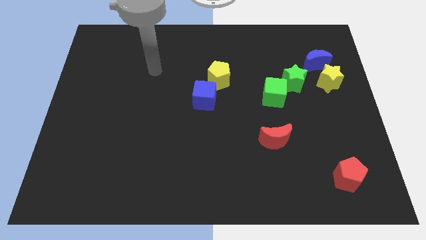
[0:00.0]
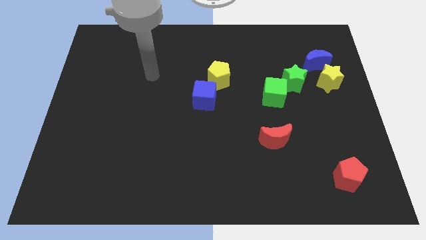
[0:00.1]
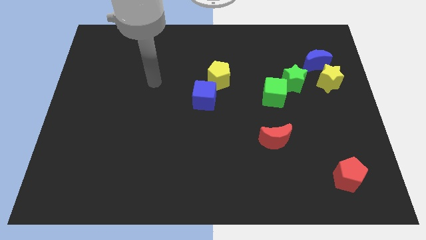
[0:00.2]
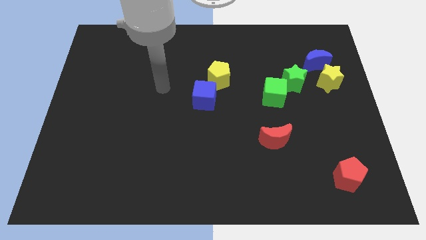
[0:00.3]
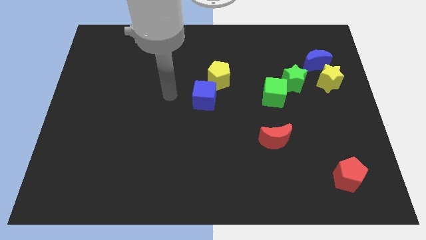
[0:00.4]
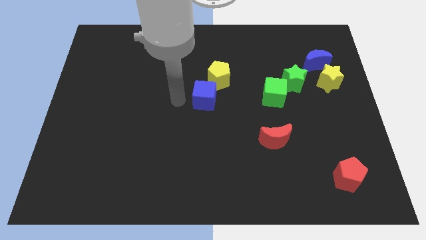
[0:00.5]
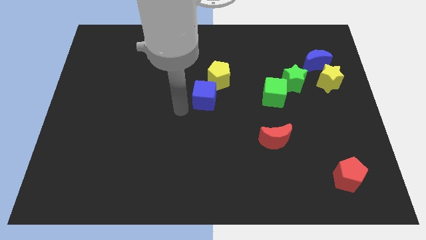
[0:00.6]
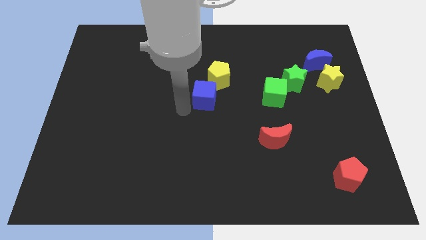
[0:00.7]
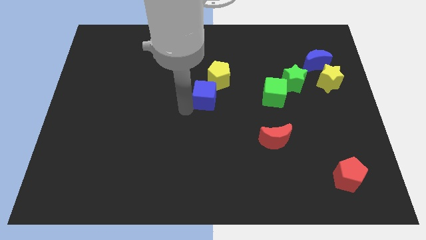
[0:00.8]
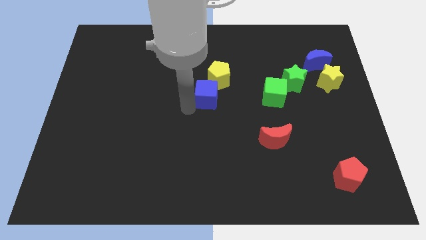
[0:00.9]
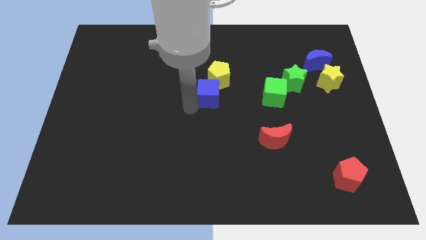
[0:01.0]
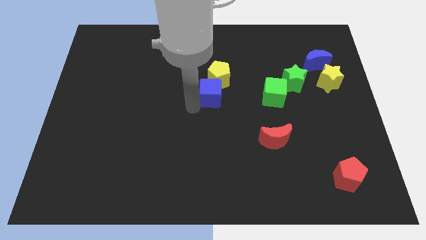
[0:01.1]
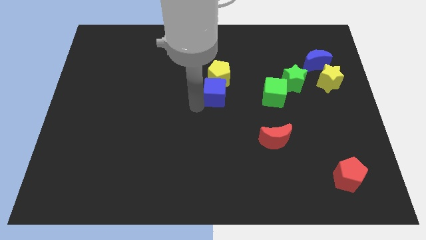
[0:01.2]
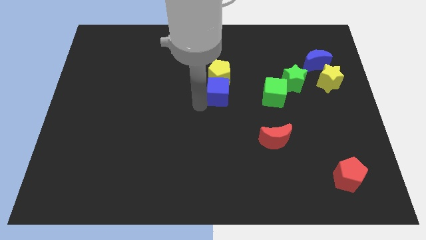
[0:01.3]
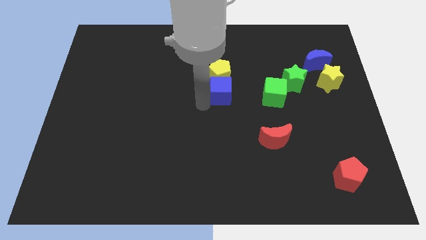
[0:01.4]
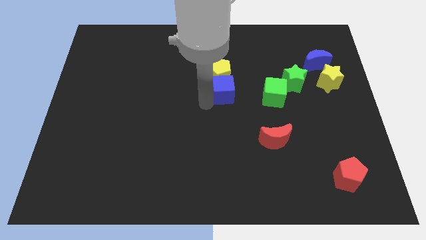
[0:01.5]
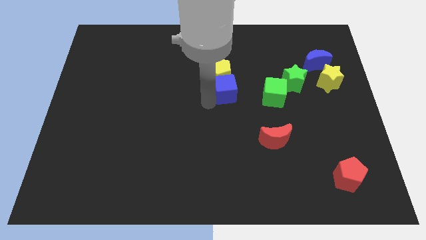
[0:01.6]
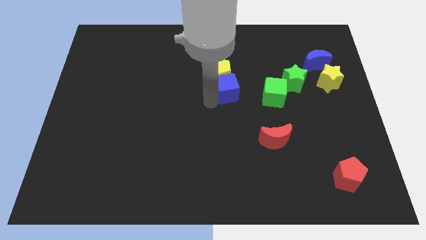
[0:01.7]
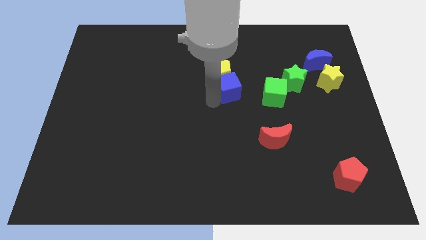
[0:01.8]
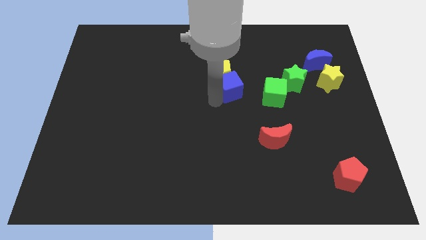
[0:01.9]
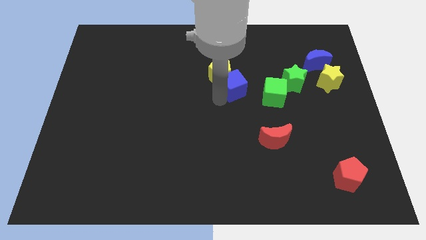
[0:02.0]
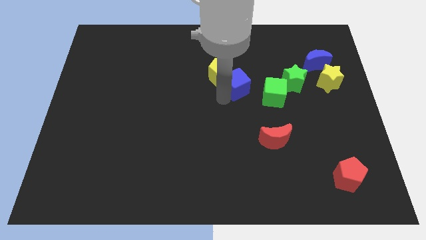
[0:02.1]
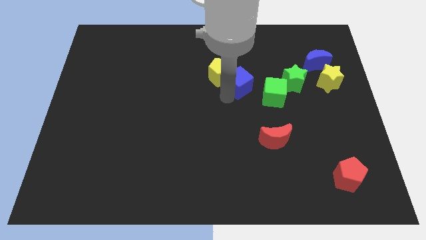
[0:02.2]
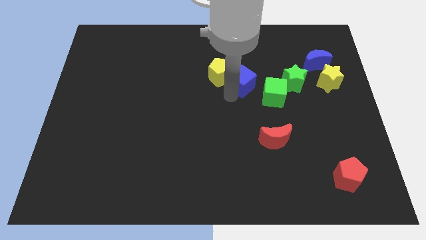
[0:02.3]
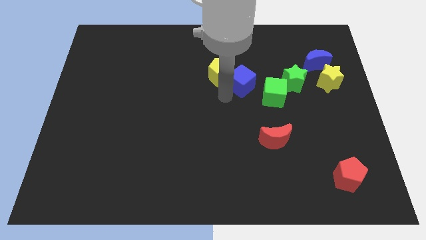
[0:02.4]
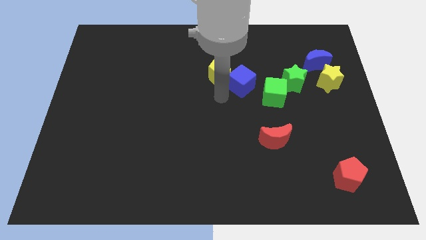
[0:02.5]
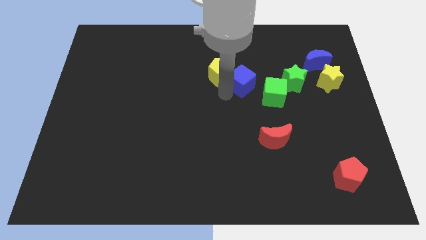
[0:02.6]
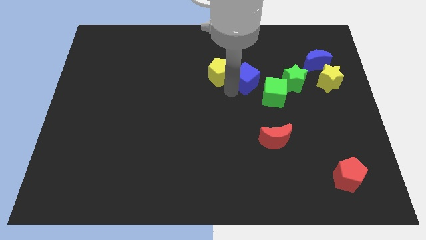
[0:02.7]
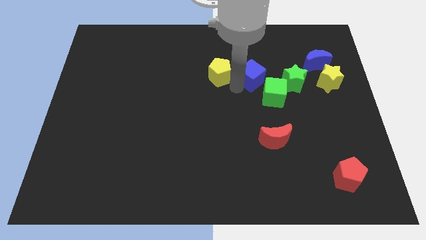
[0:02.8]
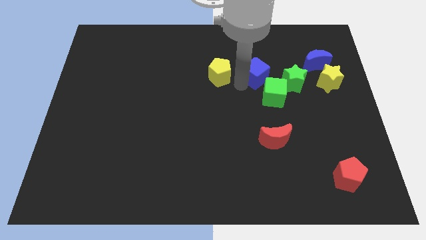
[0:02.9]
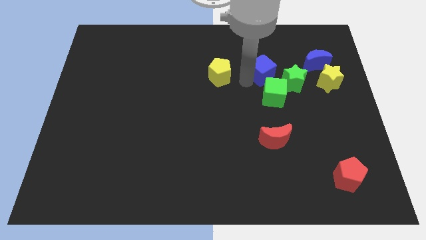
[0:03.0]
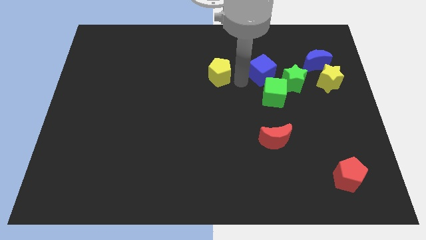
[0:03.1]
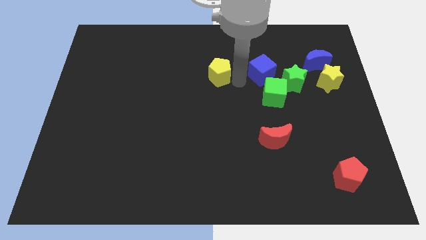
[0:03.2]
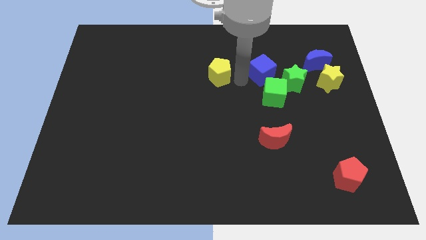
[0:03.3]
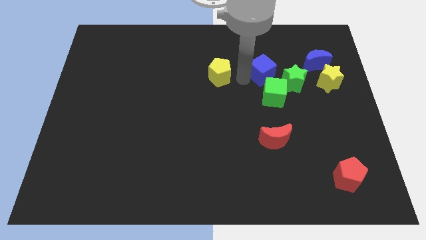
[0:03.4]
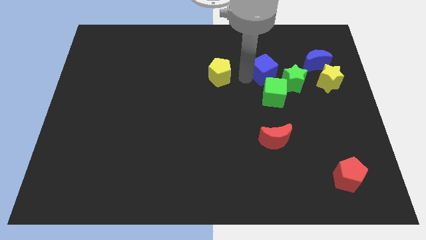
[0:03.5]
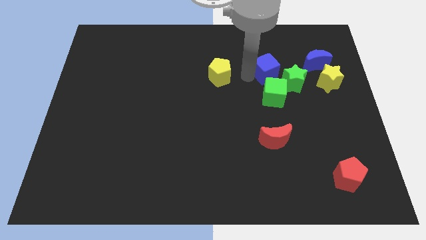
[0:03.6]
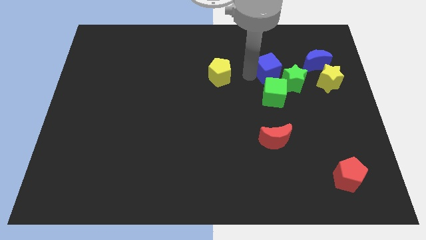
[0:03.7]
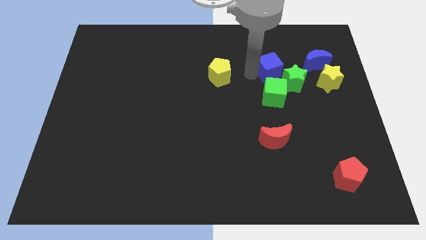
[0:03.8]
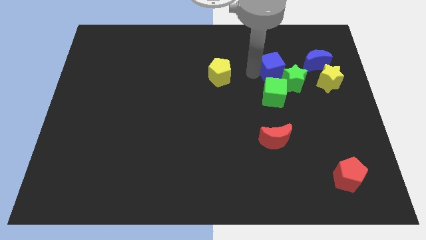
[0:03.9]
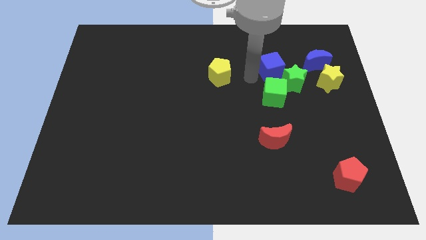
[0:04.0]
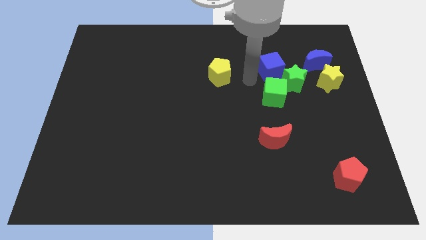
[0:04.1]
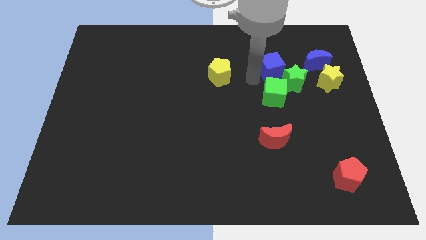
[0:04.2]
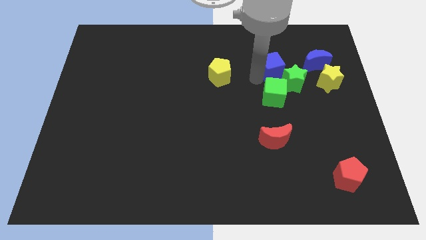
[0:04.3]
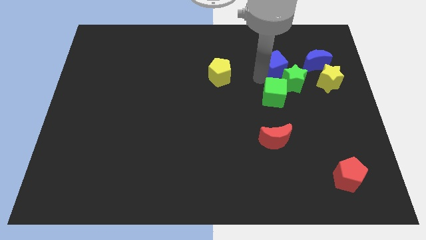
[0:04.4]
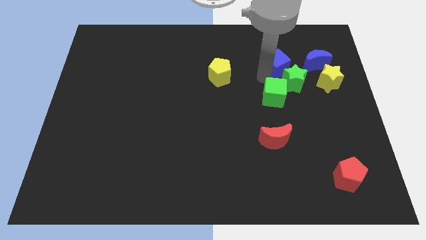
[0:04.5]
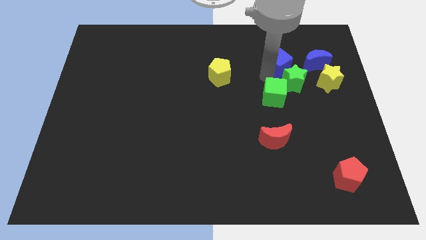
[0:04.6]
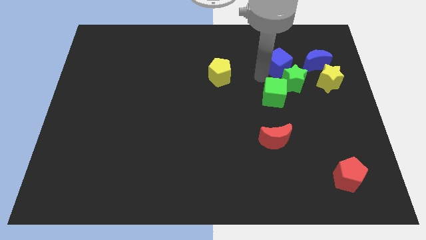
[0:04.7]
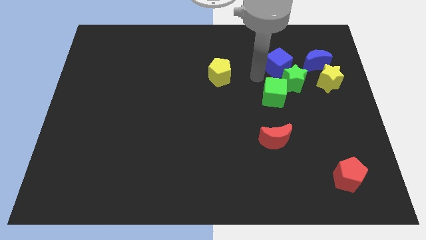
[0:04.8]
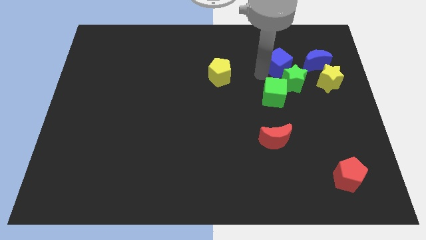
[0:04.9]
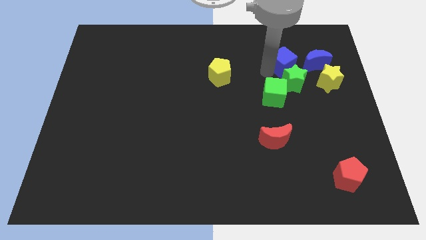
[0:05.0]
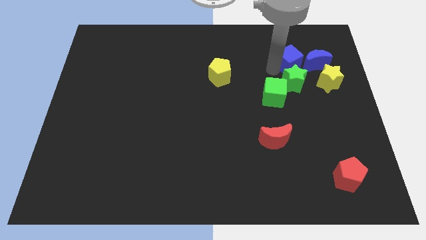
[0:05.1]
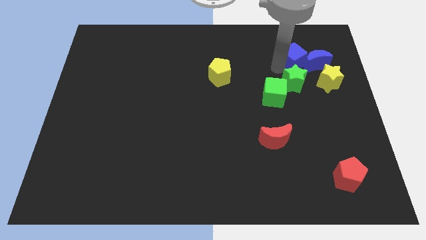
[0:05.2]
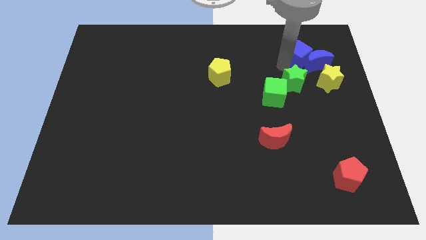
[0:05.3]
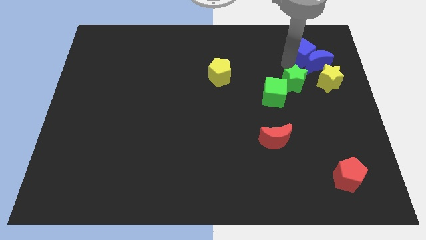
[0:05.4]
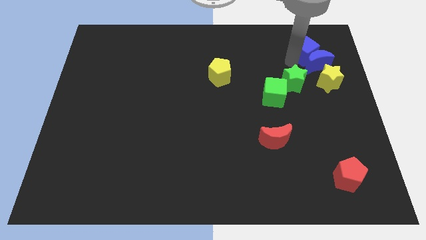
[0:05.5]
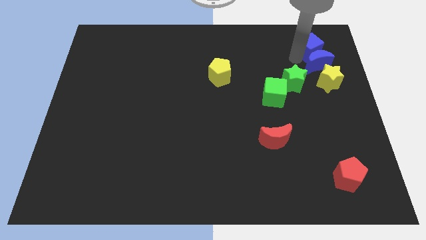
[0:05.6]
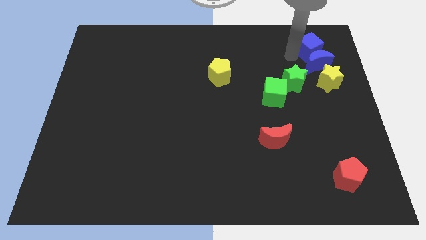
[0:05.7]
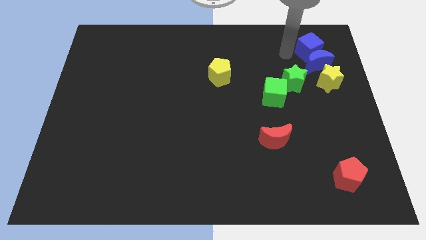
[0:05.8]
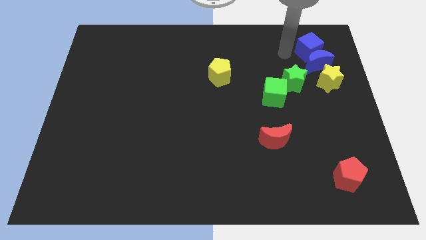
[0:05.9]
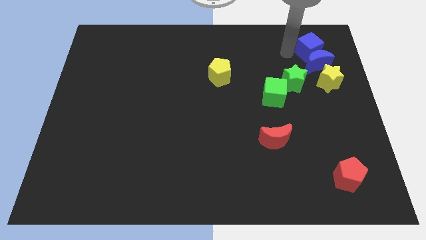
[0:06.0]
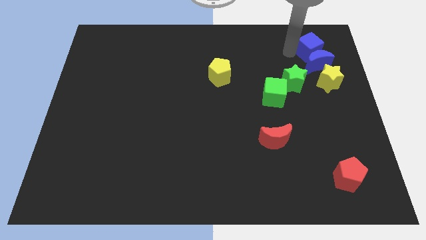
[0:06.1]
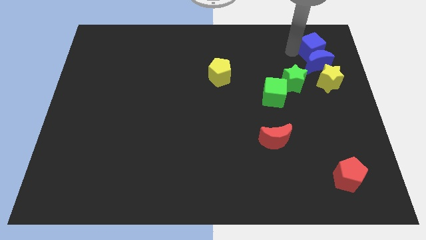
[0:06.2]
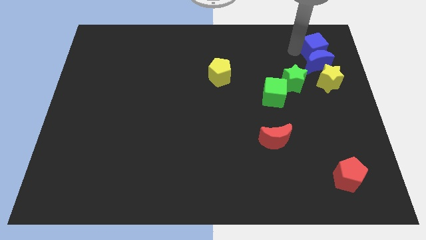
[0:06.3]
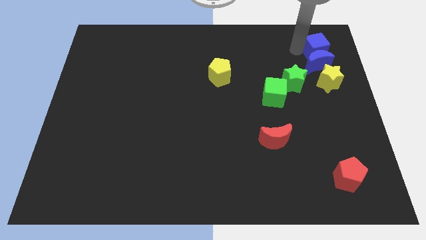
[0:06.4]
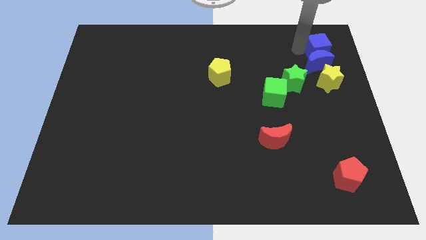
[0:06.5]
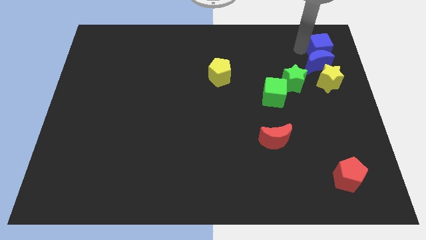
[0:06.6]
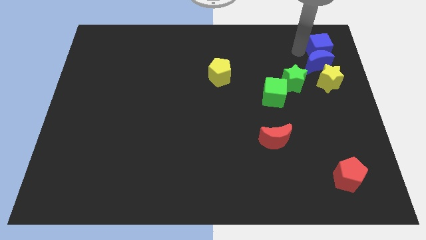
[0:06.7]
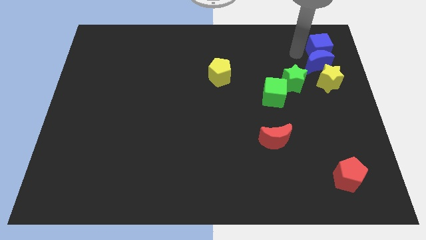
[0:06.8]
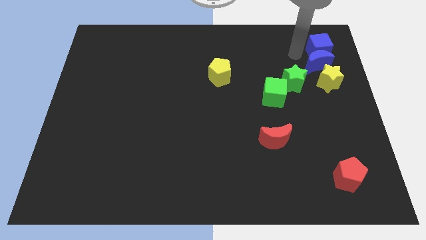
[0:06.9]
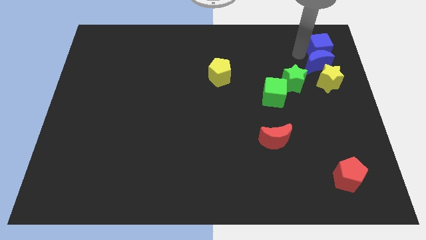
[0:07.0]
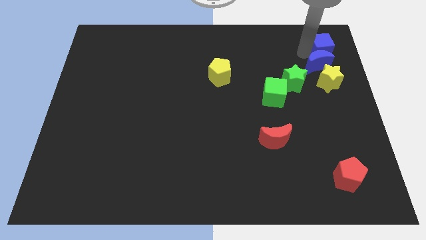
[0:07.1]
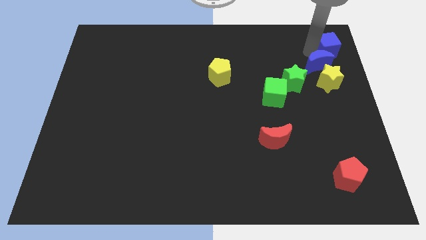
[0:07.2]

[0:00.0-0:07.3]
put the blue cube to the top right corner

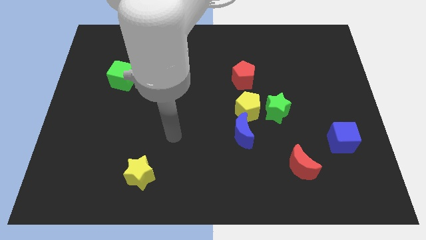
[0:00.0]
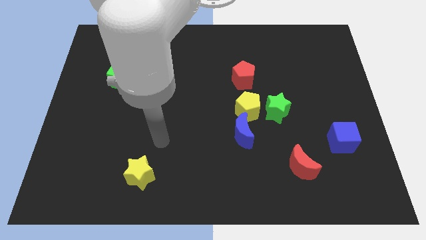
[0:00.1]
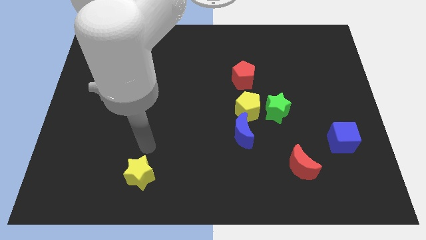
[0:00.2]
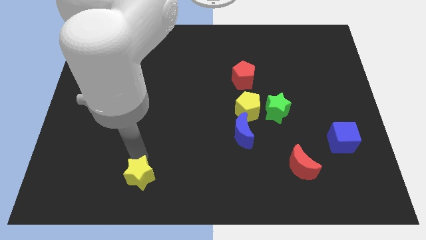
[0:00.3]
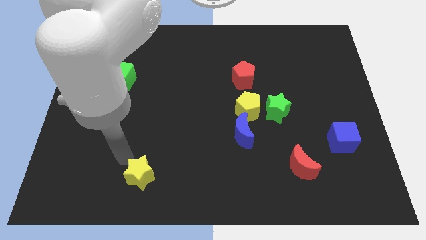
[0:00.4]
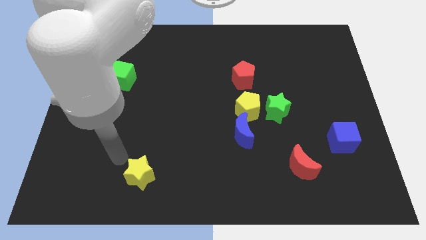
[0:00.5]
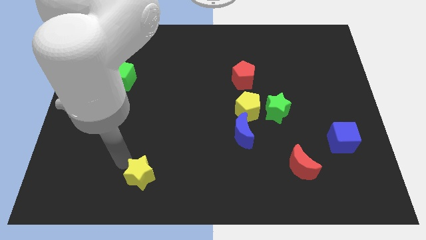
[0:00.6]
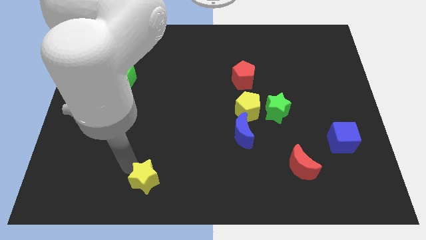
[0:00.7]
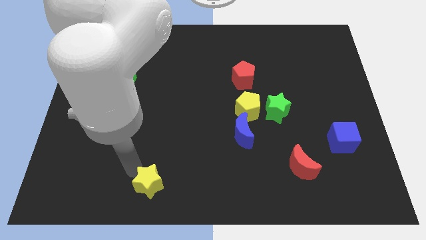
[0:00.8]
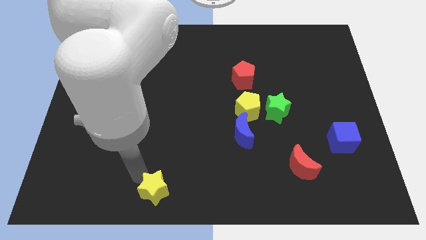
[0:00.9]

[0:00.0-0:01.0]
move the yellow star to the bottom
